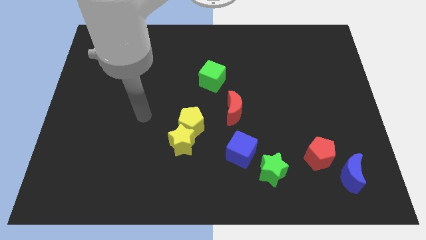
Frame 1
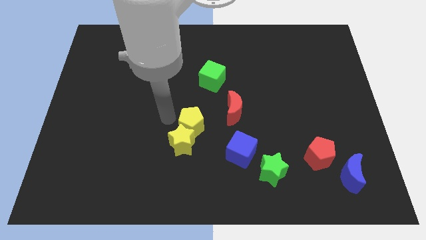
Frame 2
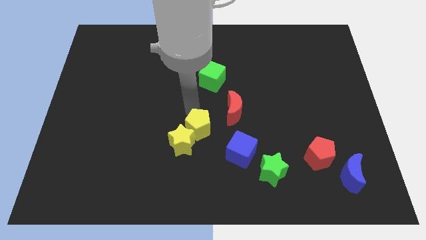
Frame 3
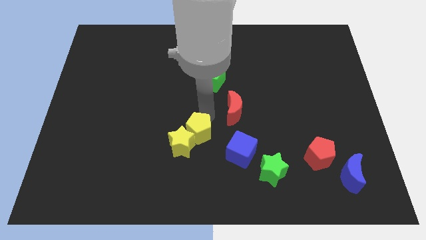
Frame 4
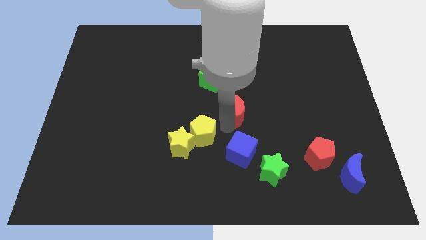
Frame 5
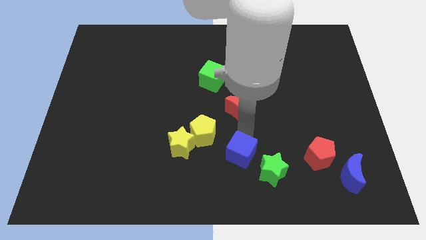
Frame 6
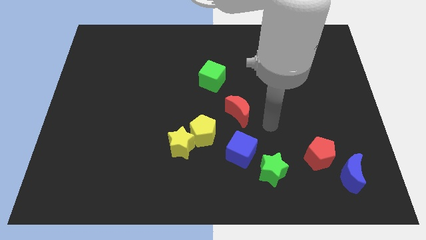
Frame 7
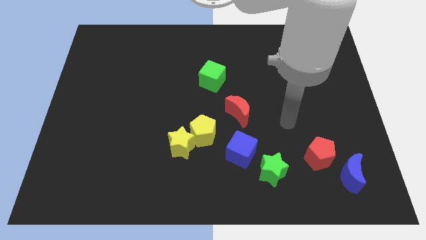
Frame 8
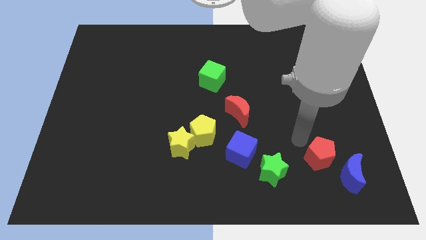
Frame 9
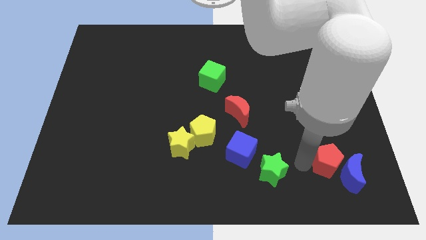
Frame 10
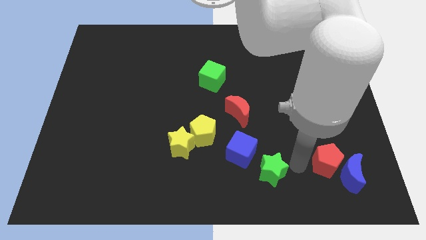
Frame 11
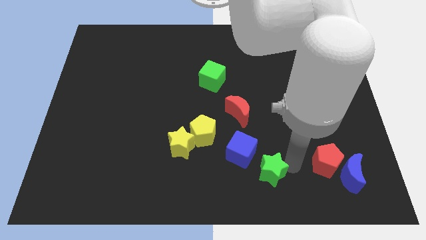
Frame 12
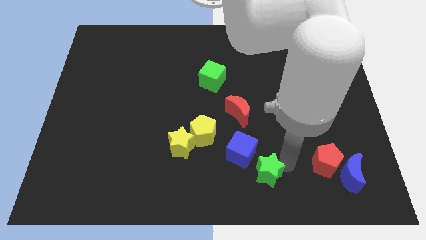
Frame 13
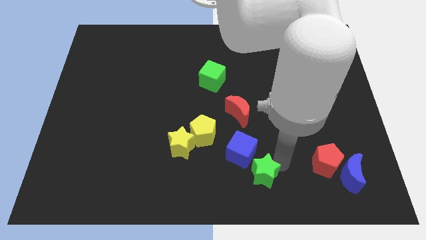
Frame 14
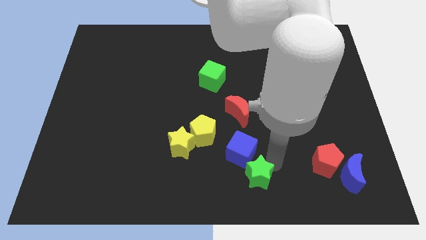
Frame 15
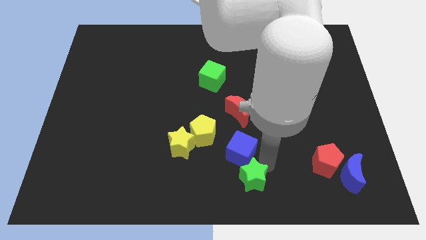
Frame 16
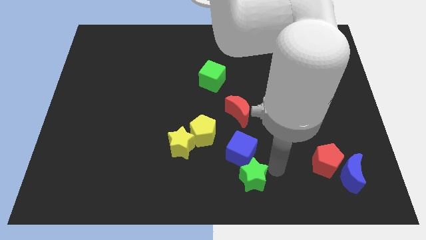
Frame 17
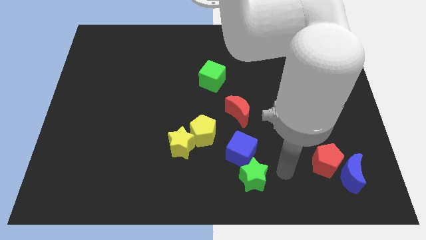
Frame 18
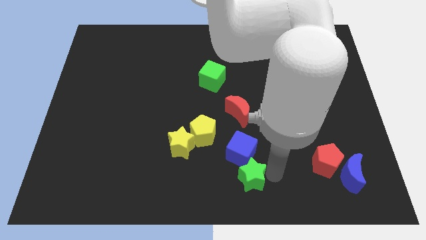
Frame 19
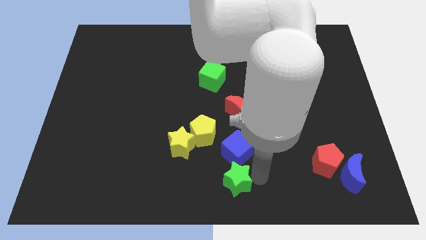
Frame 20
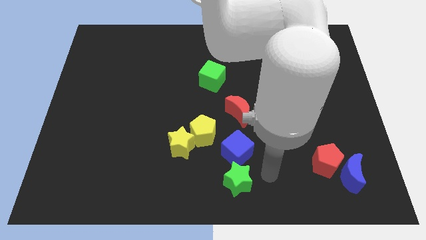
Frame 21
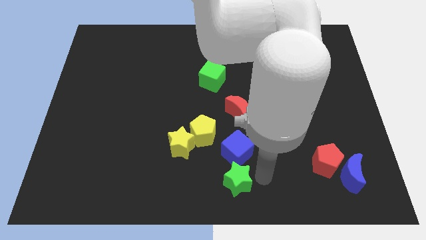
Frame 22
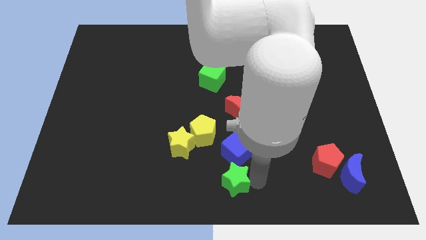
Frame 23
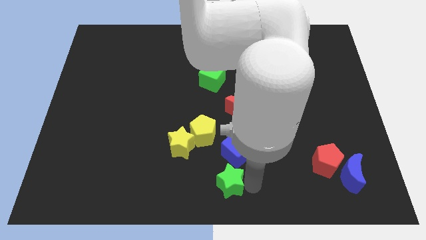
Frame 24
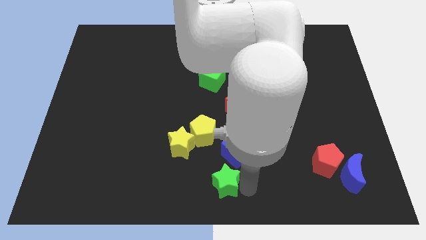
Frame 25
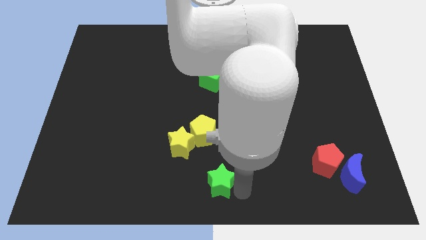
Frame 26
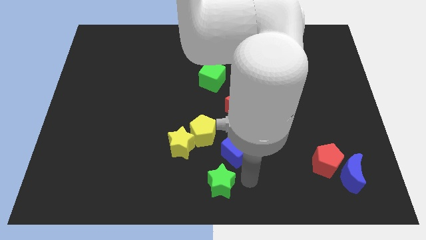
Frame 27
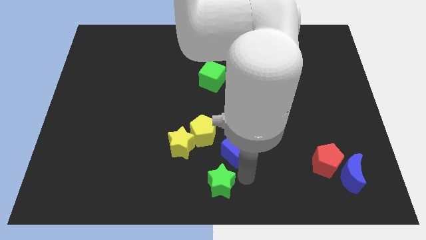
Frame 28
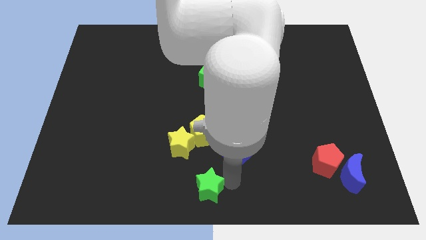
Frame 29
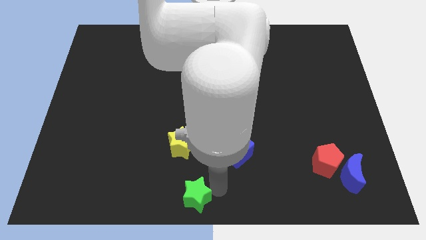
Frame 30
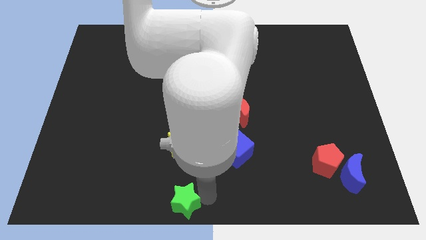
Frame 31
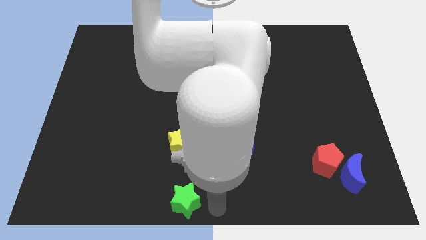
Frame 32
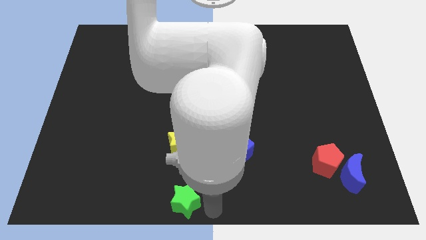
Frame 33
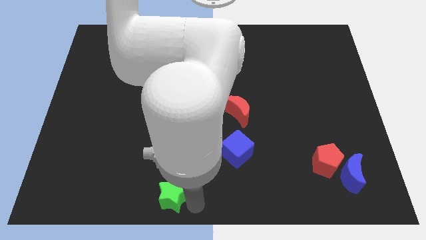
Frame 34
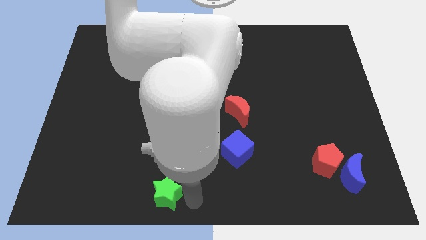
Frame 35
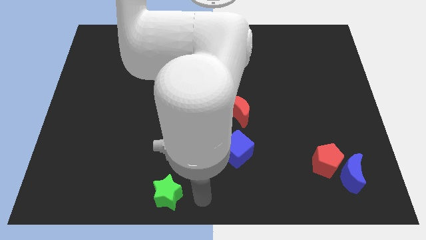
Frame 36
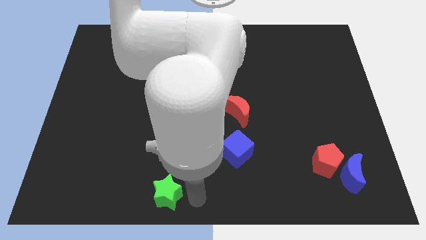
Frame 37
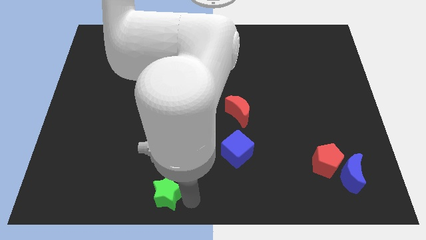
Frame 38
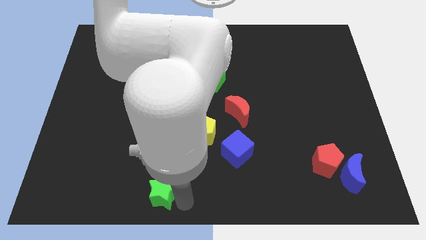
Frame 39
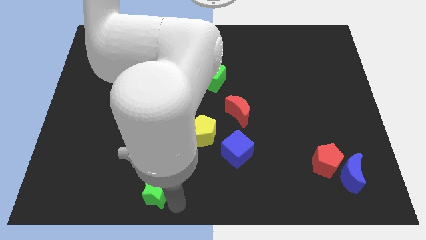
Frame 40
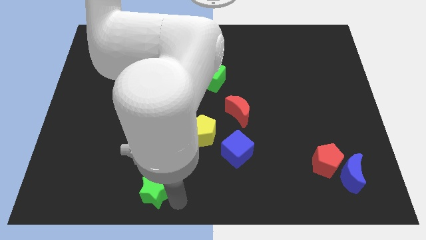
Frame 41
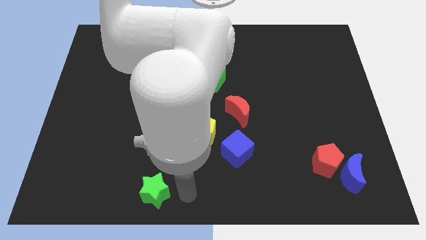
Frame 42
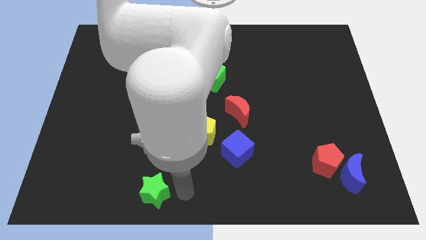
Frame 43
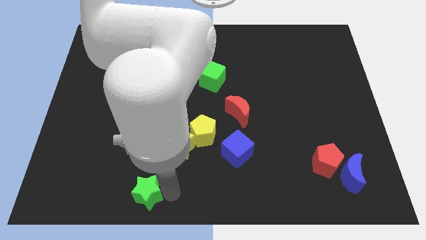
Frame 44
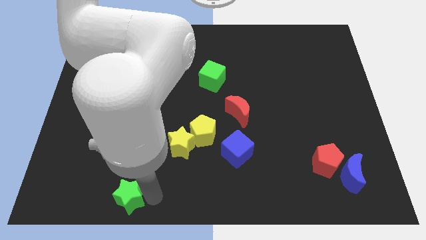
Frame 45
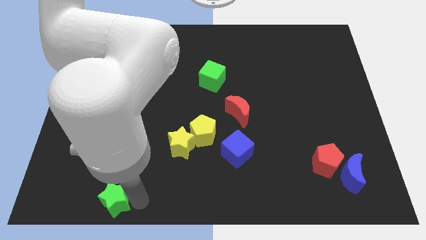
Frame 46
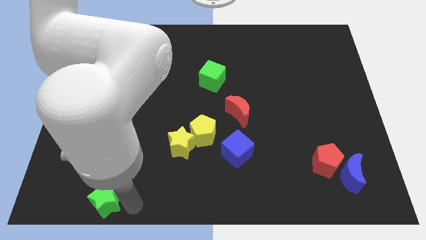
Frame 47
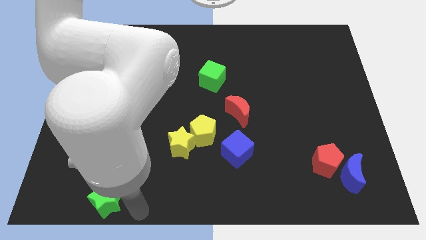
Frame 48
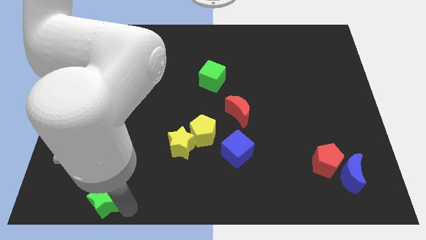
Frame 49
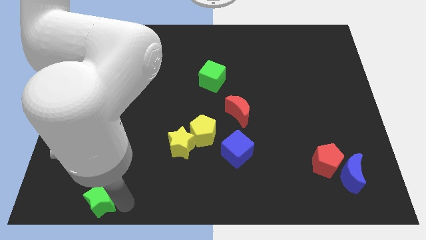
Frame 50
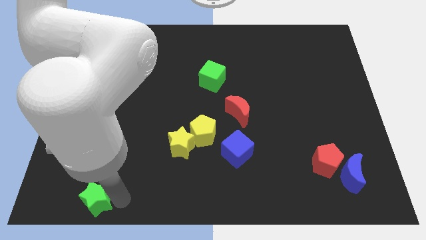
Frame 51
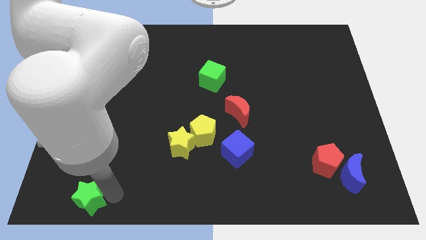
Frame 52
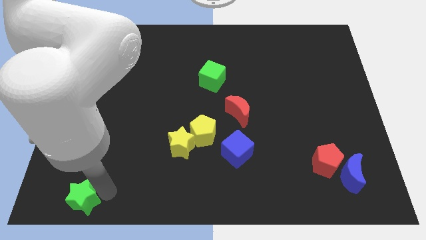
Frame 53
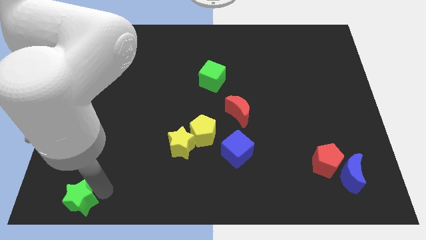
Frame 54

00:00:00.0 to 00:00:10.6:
slide the green star to the bottom left corner
